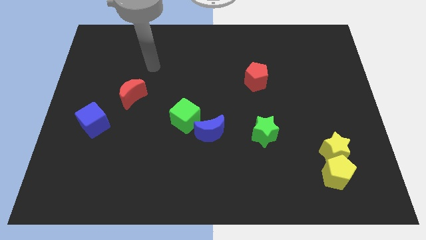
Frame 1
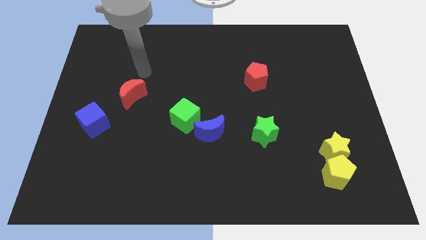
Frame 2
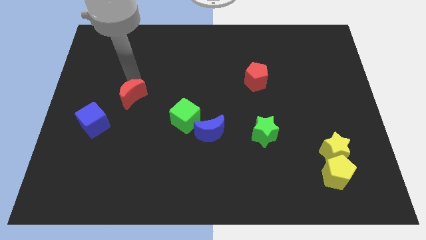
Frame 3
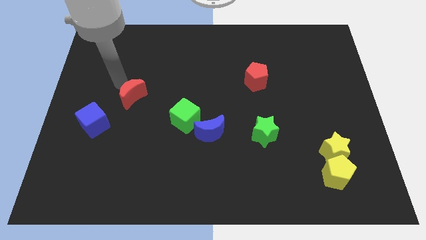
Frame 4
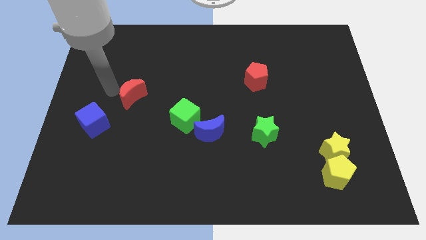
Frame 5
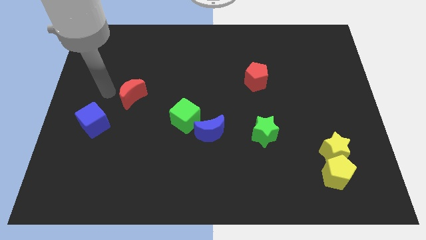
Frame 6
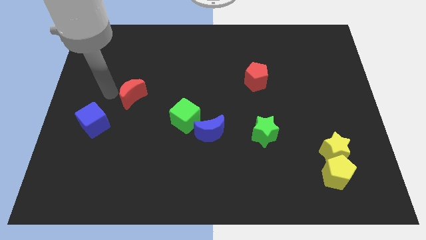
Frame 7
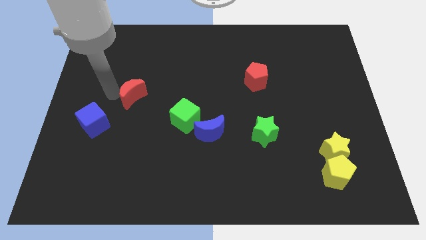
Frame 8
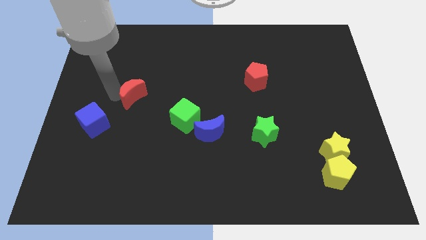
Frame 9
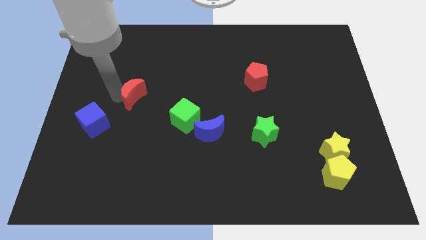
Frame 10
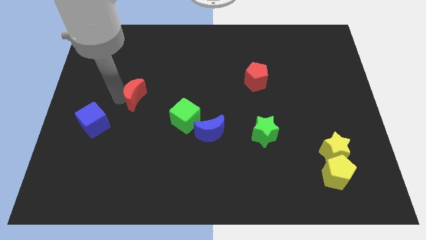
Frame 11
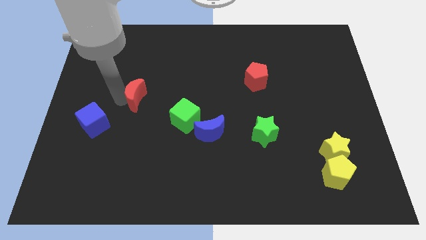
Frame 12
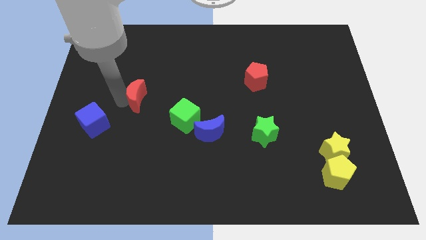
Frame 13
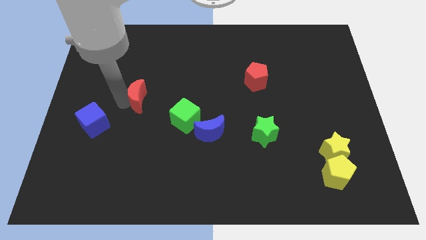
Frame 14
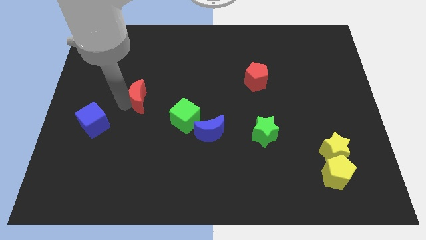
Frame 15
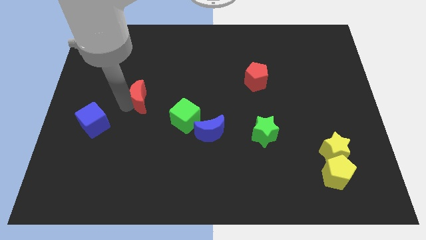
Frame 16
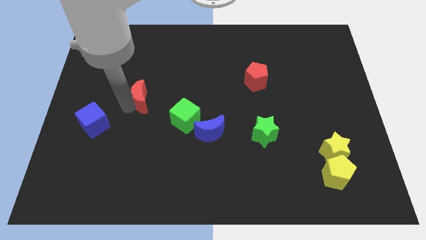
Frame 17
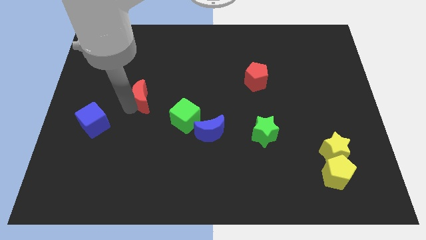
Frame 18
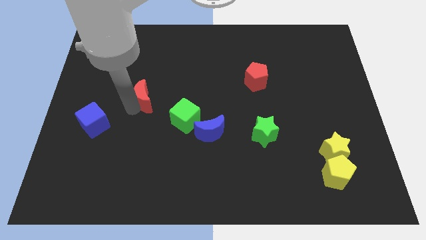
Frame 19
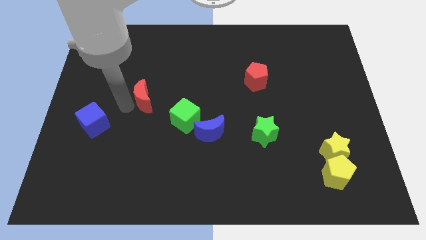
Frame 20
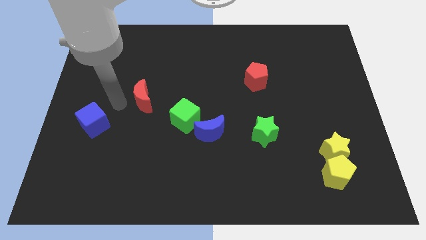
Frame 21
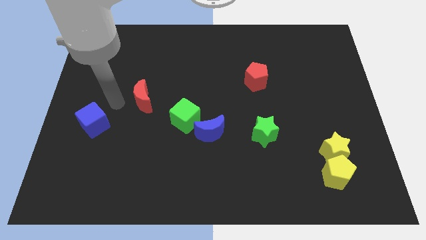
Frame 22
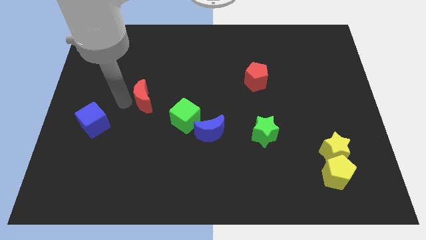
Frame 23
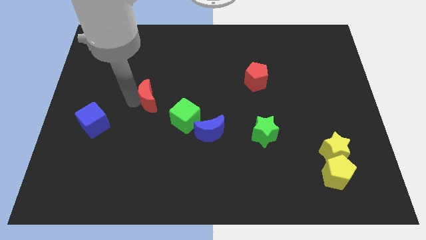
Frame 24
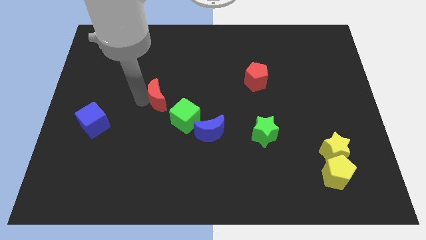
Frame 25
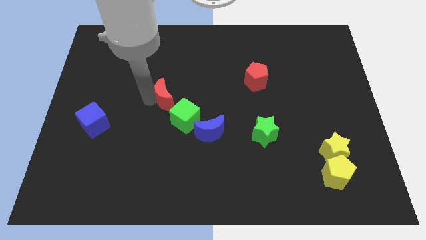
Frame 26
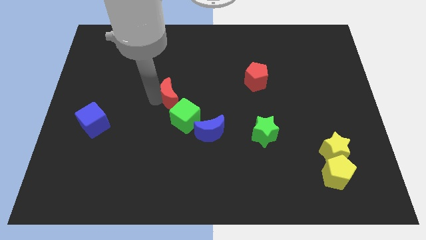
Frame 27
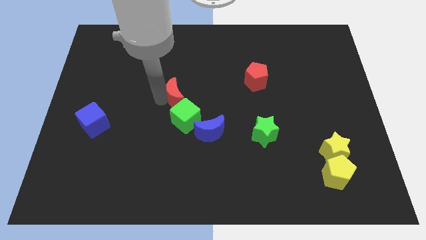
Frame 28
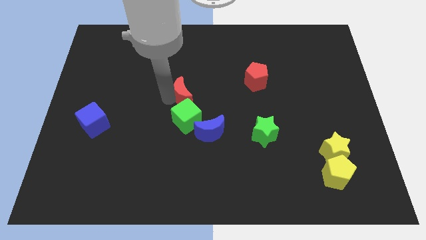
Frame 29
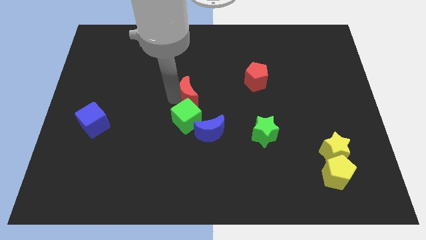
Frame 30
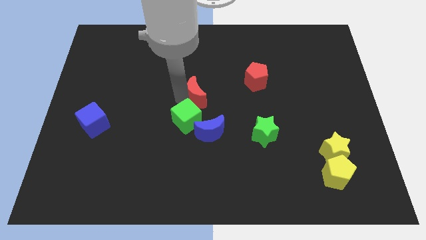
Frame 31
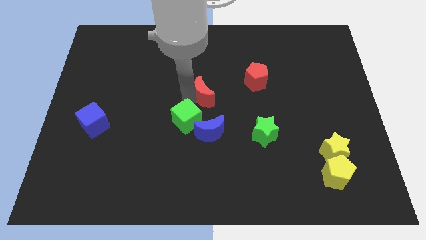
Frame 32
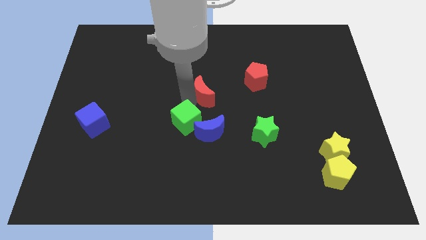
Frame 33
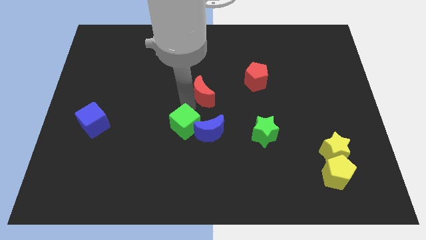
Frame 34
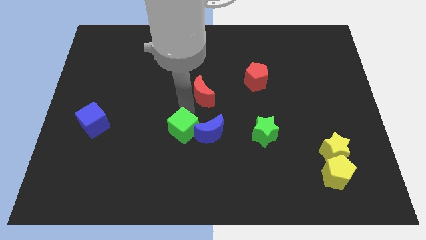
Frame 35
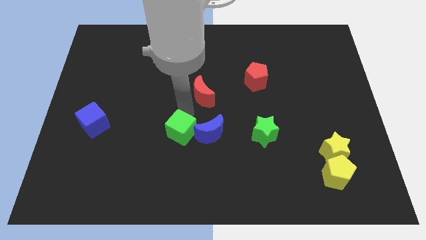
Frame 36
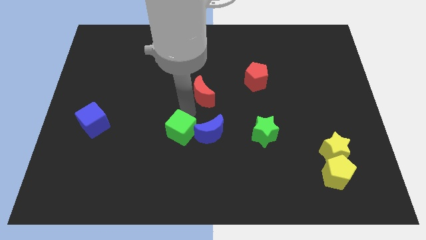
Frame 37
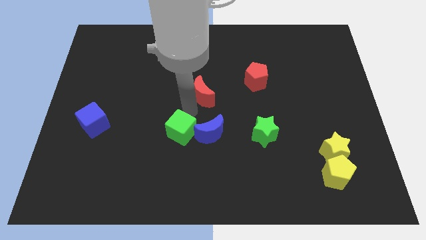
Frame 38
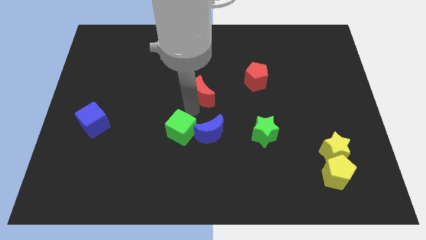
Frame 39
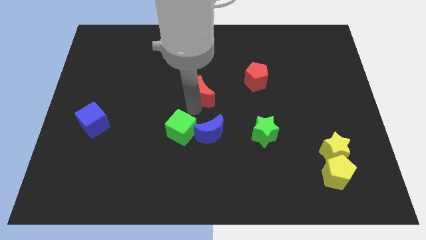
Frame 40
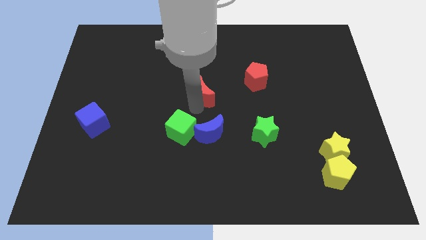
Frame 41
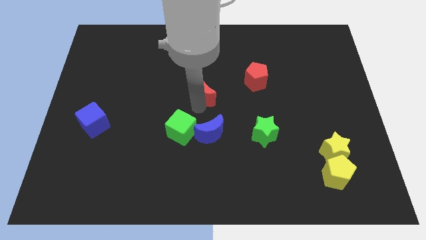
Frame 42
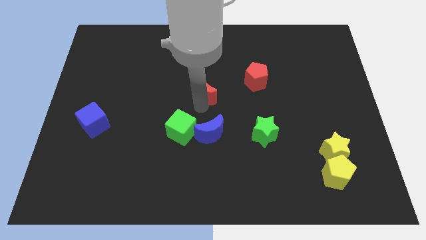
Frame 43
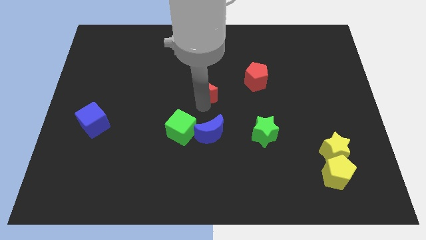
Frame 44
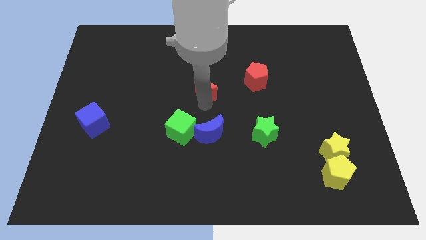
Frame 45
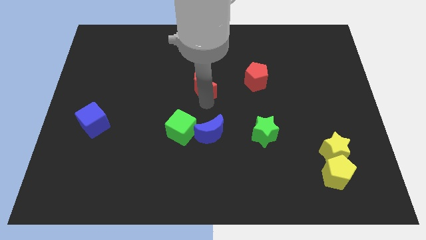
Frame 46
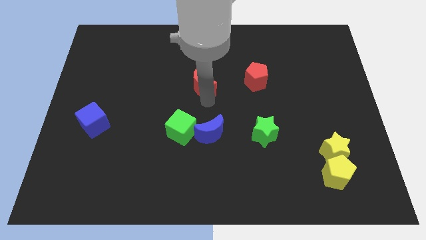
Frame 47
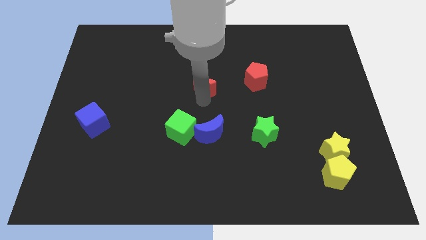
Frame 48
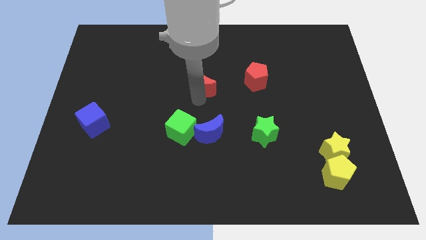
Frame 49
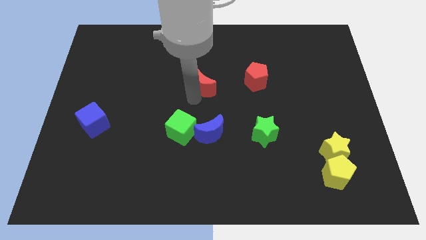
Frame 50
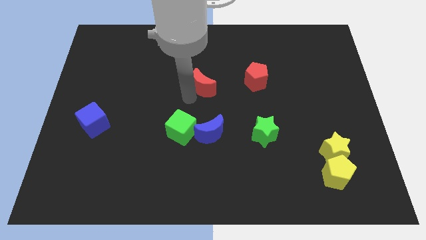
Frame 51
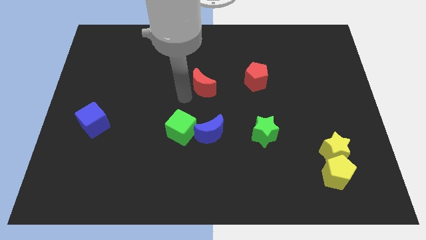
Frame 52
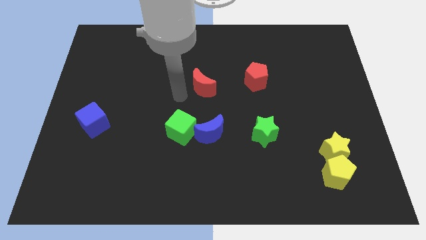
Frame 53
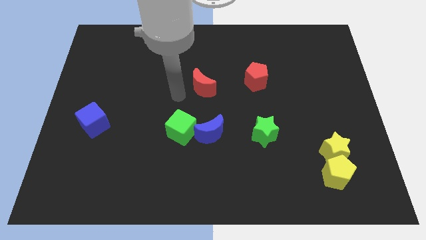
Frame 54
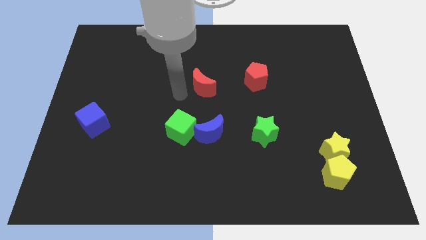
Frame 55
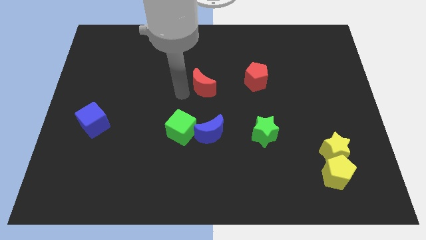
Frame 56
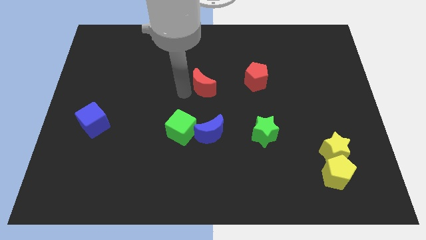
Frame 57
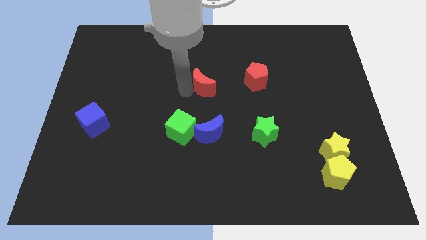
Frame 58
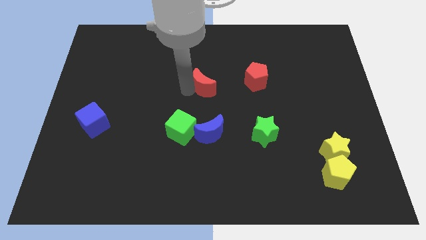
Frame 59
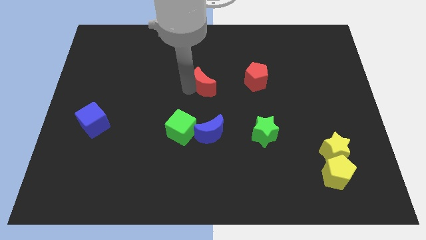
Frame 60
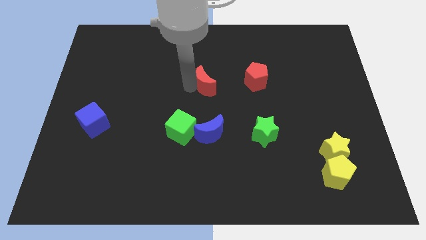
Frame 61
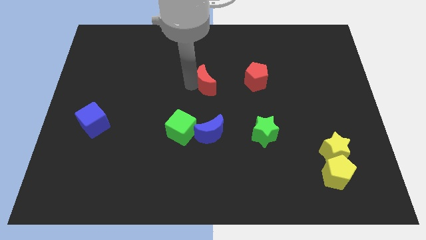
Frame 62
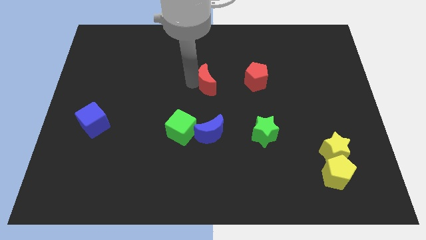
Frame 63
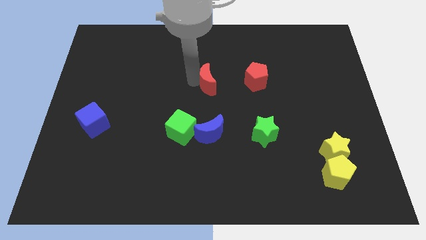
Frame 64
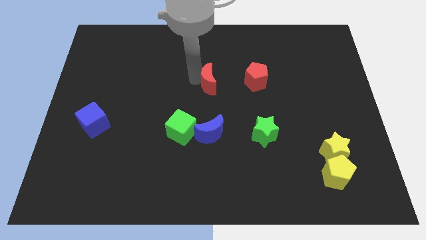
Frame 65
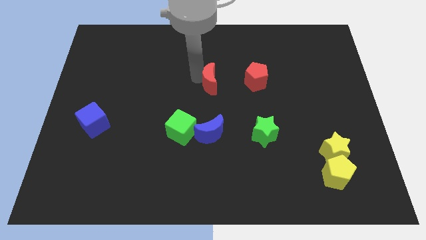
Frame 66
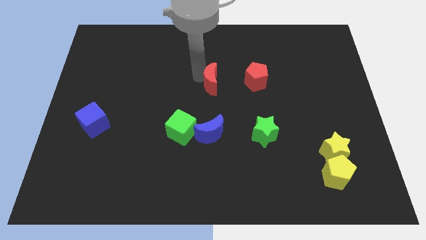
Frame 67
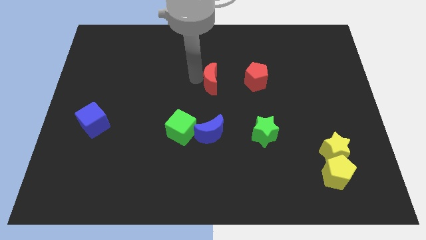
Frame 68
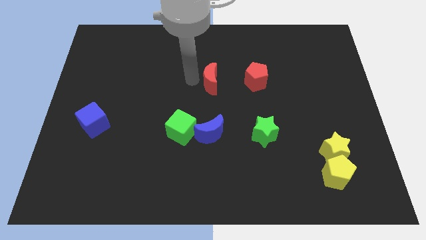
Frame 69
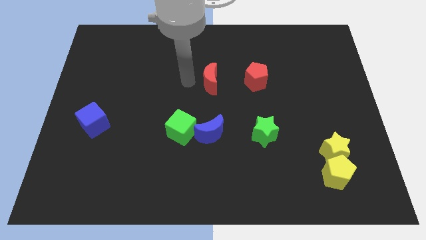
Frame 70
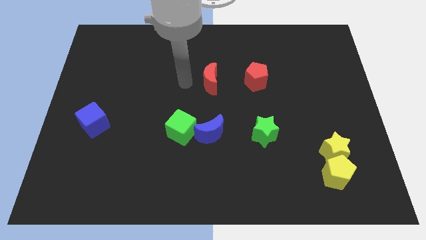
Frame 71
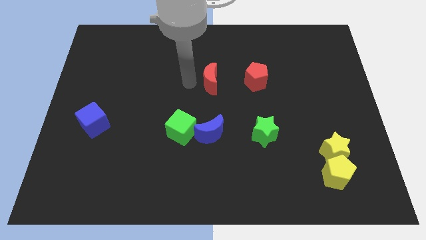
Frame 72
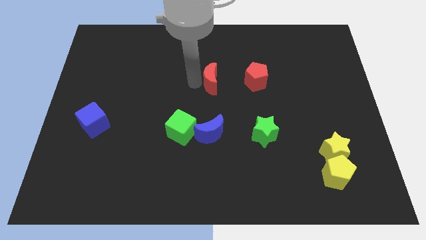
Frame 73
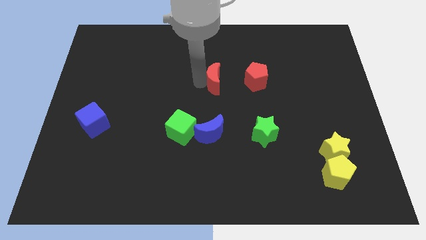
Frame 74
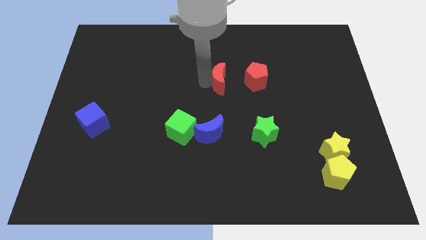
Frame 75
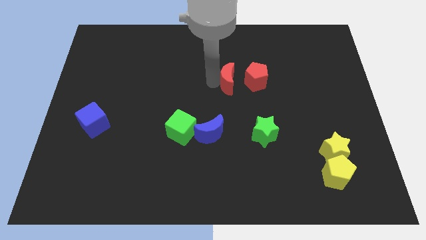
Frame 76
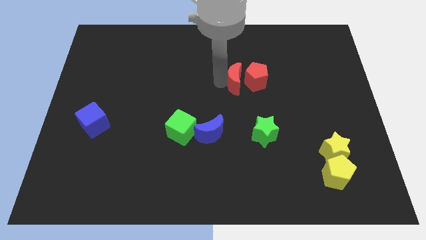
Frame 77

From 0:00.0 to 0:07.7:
push the red moon to the red pentagon
